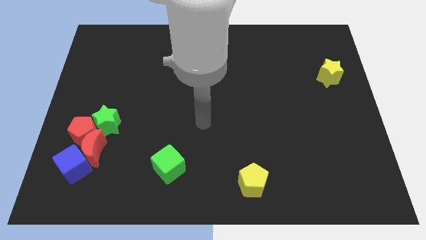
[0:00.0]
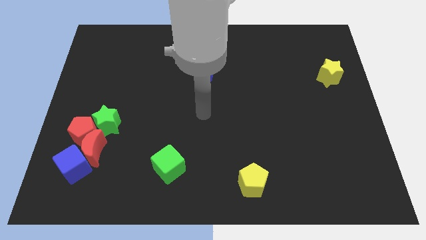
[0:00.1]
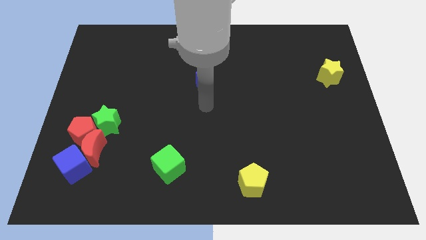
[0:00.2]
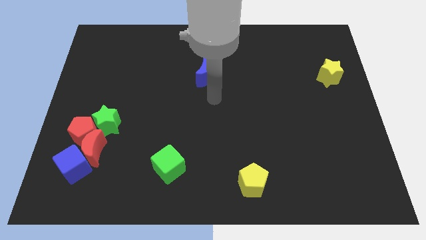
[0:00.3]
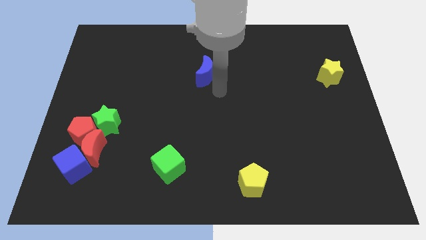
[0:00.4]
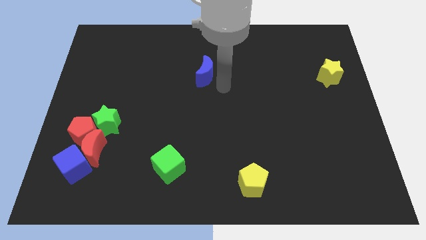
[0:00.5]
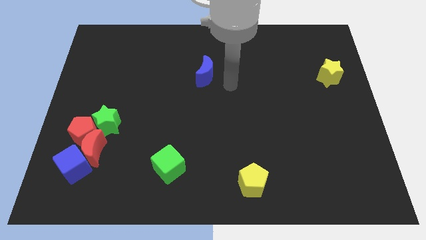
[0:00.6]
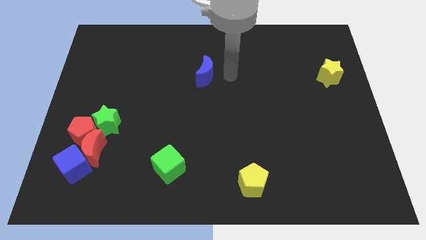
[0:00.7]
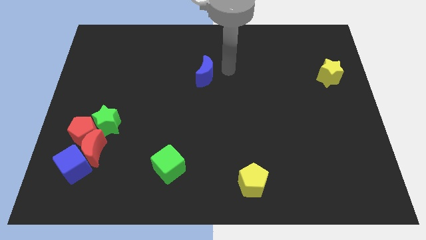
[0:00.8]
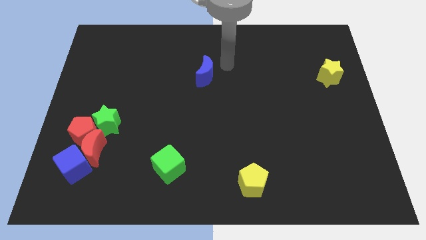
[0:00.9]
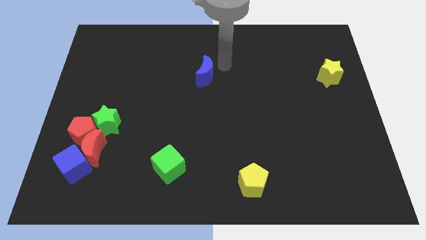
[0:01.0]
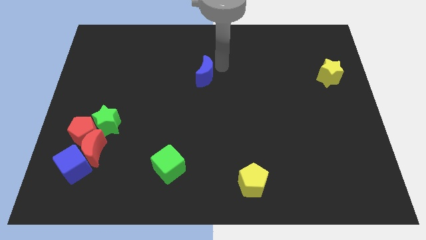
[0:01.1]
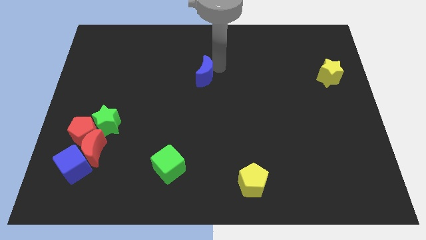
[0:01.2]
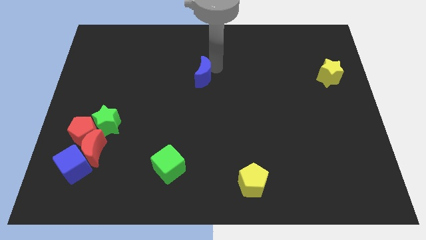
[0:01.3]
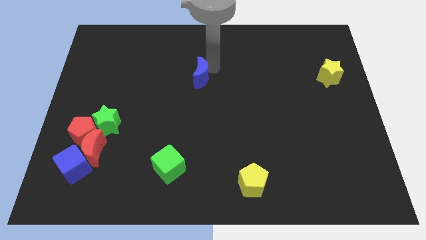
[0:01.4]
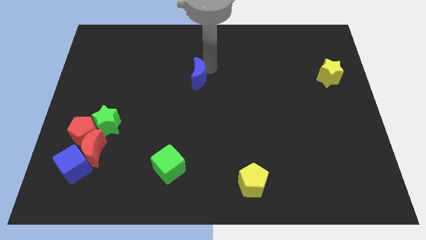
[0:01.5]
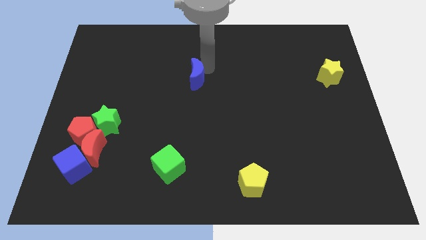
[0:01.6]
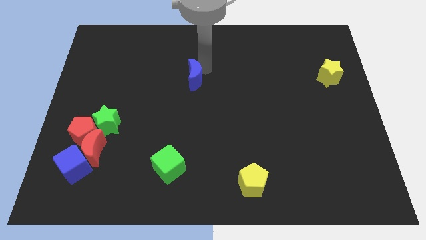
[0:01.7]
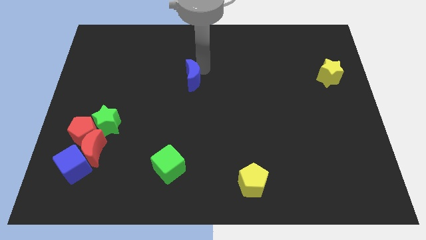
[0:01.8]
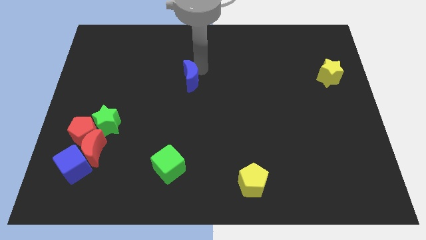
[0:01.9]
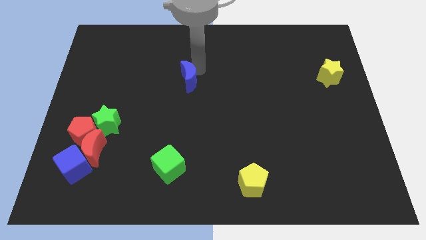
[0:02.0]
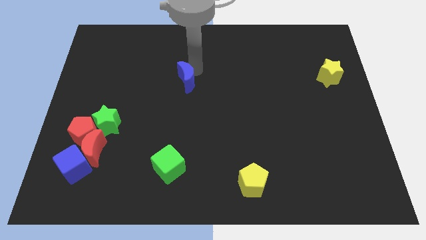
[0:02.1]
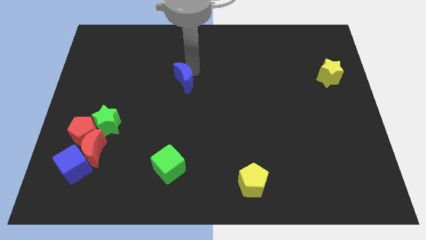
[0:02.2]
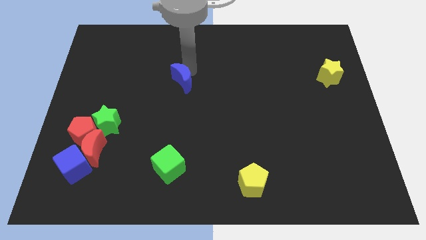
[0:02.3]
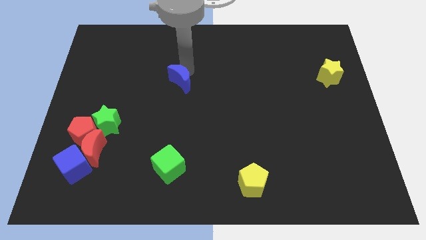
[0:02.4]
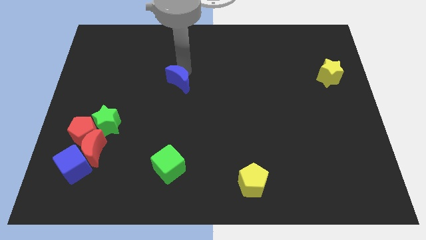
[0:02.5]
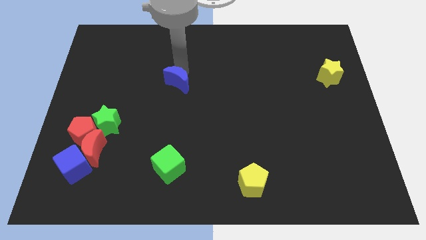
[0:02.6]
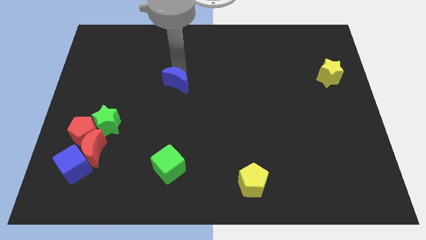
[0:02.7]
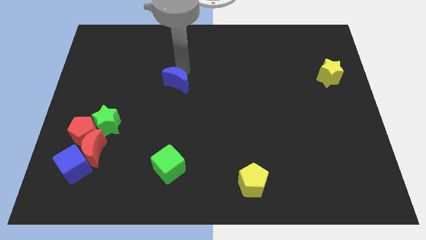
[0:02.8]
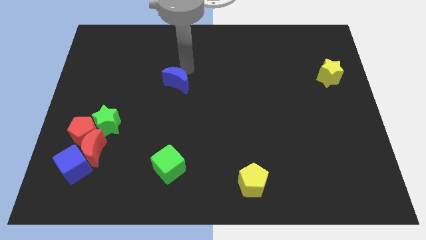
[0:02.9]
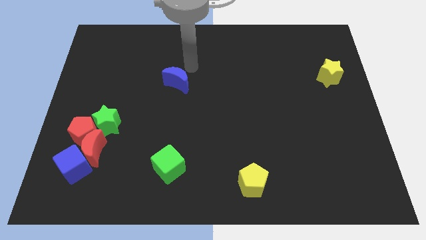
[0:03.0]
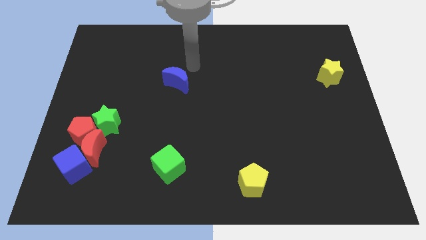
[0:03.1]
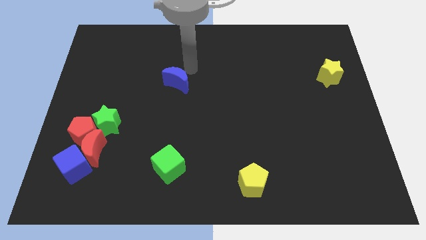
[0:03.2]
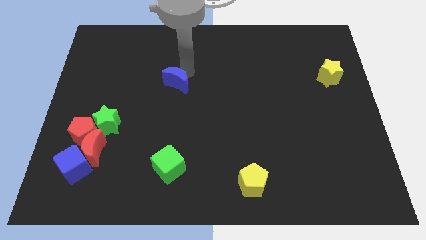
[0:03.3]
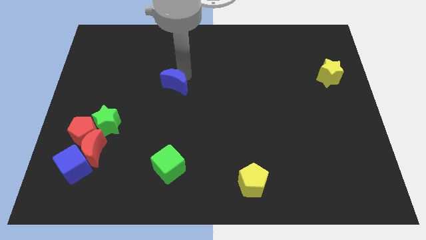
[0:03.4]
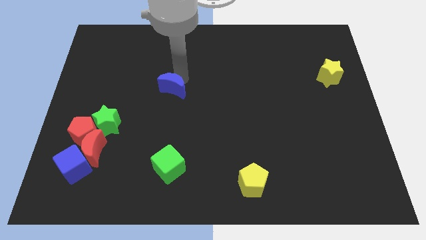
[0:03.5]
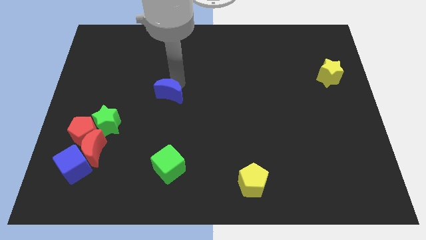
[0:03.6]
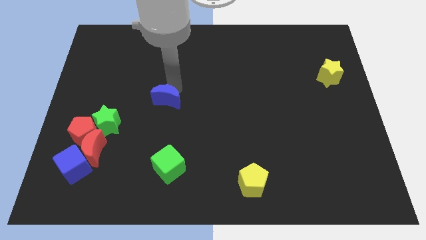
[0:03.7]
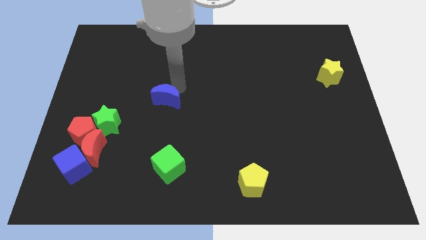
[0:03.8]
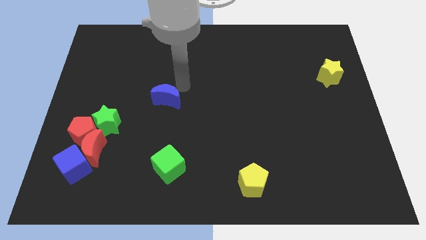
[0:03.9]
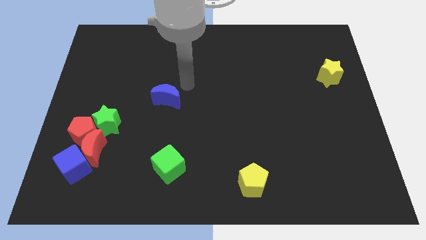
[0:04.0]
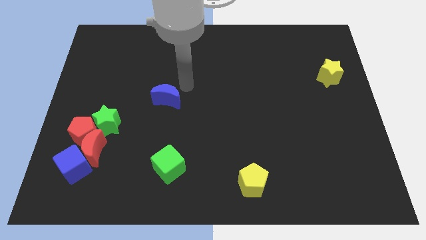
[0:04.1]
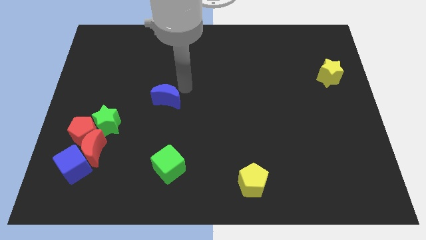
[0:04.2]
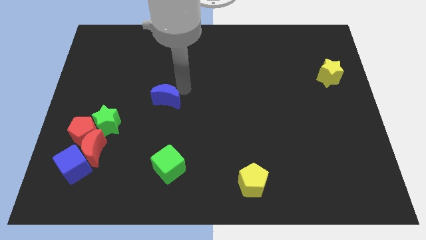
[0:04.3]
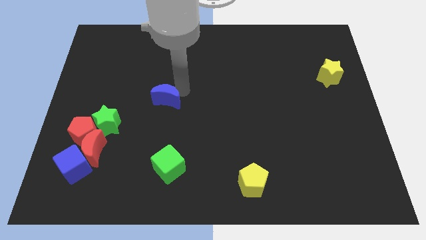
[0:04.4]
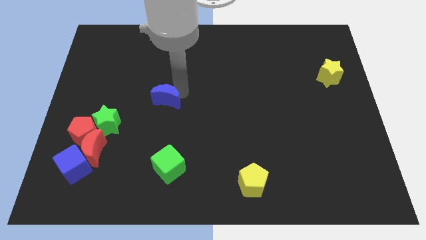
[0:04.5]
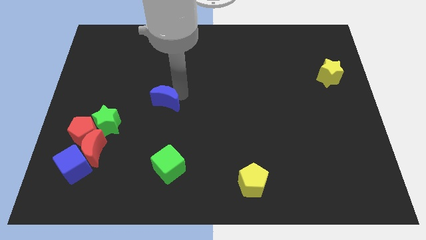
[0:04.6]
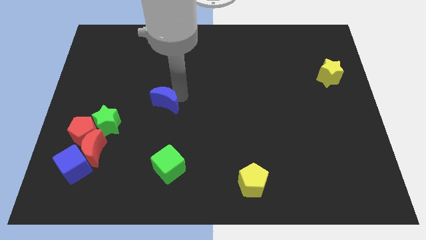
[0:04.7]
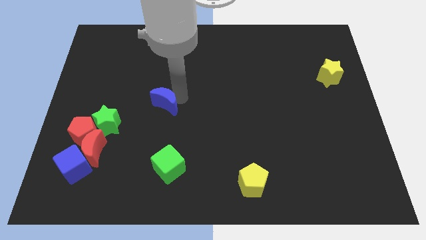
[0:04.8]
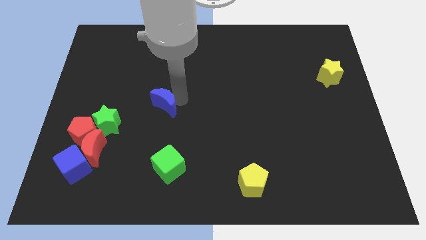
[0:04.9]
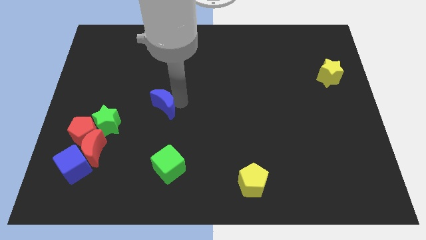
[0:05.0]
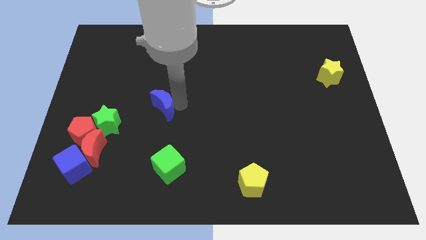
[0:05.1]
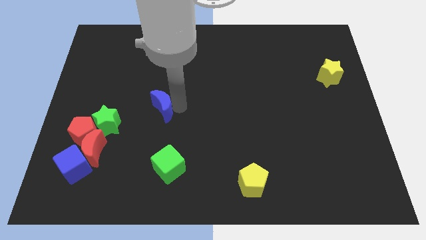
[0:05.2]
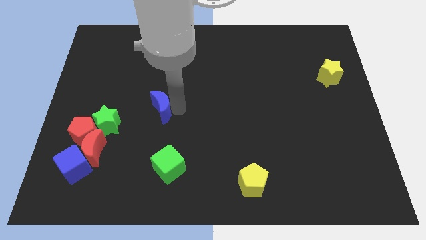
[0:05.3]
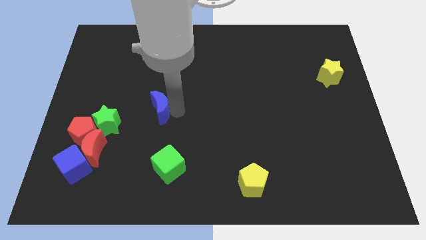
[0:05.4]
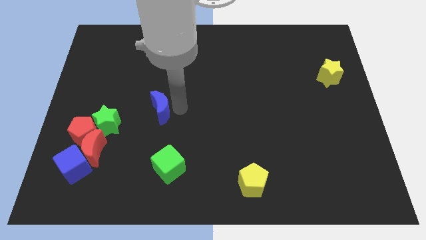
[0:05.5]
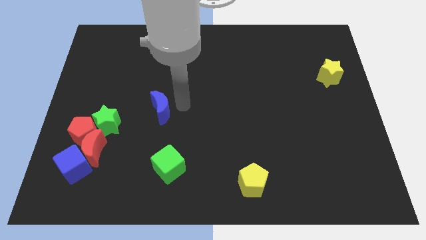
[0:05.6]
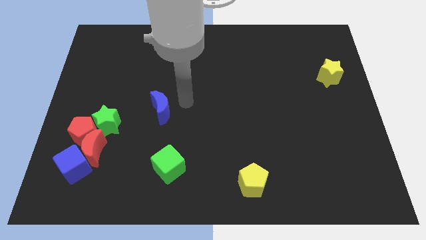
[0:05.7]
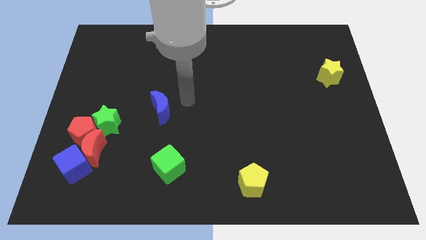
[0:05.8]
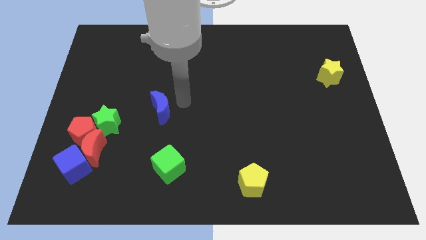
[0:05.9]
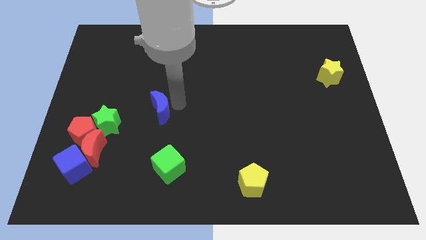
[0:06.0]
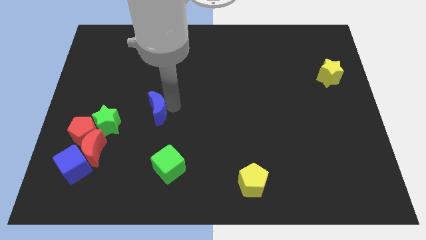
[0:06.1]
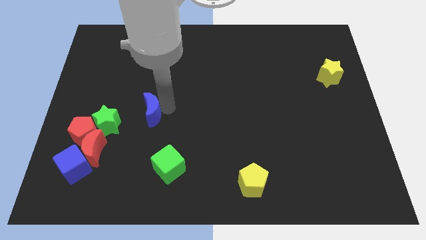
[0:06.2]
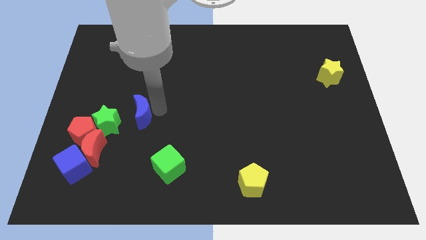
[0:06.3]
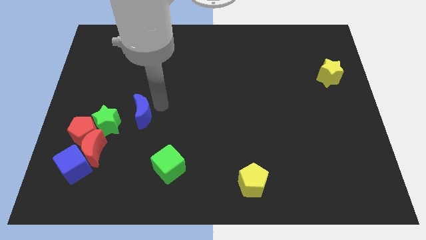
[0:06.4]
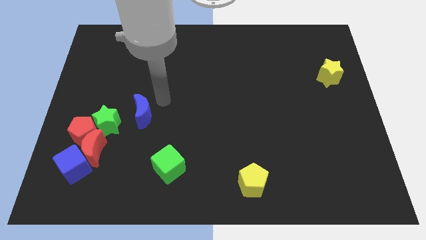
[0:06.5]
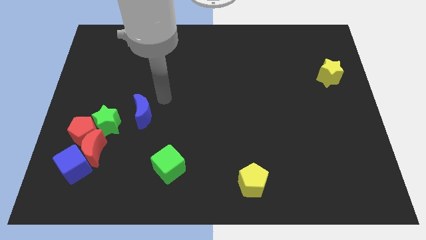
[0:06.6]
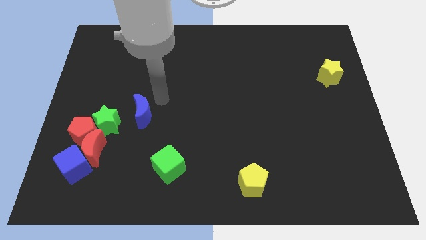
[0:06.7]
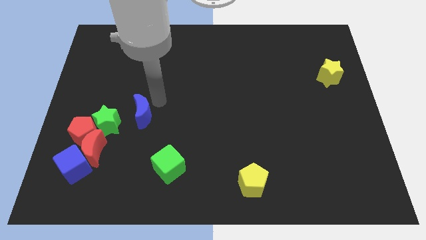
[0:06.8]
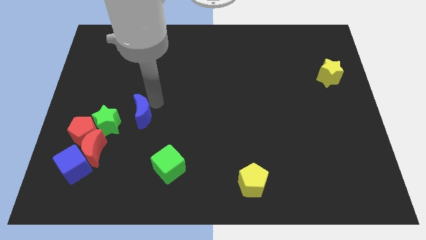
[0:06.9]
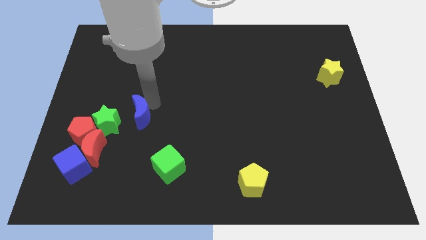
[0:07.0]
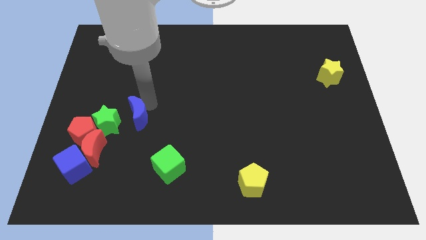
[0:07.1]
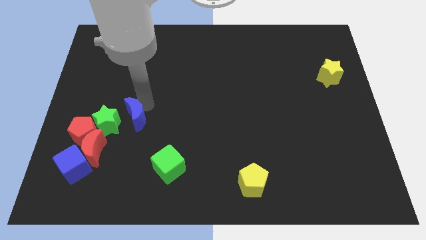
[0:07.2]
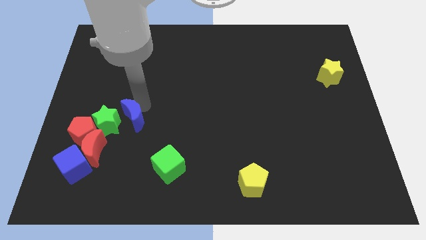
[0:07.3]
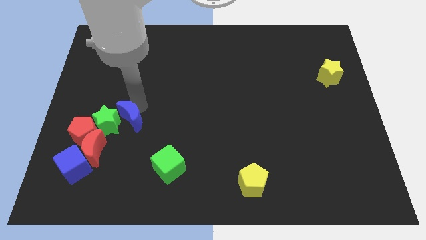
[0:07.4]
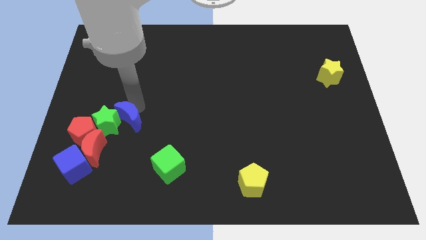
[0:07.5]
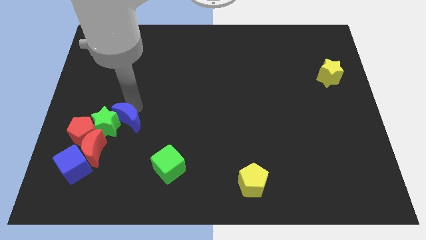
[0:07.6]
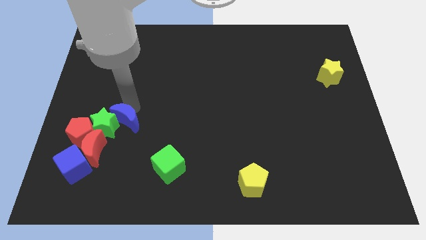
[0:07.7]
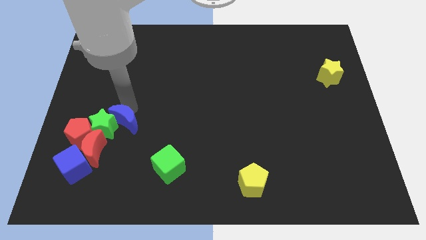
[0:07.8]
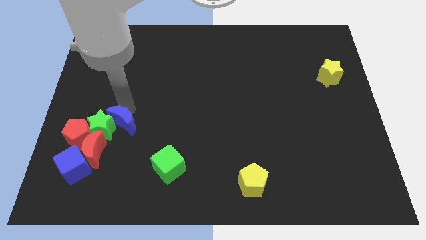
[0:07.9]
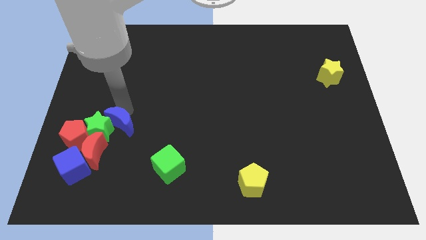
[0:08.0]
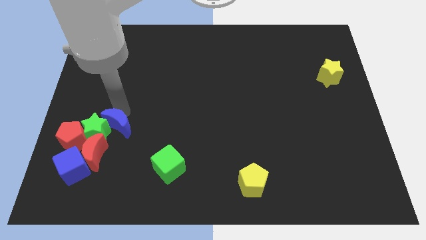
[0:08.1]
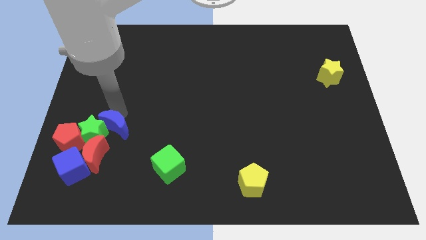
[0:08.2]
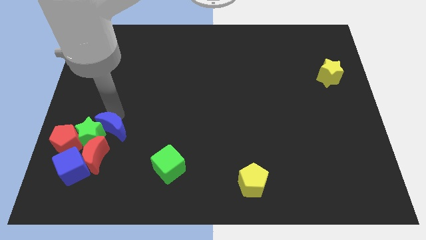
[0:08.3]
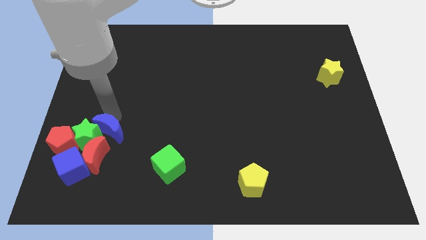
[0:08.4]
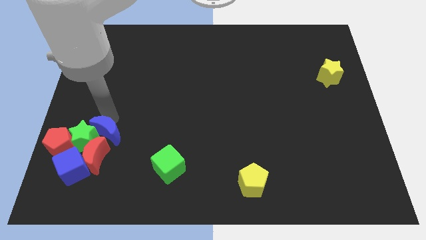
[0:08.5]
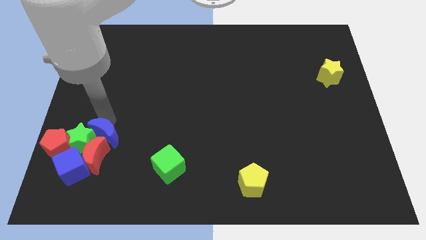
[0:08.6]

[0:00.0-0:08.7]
push the blue moon close to the red moon
